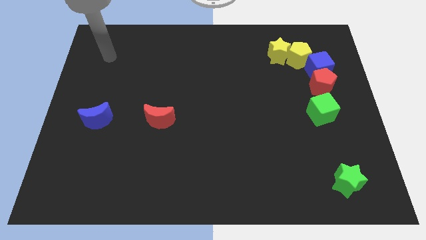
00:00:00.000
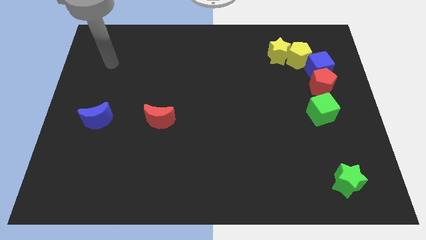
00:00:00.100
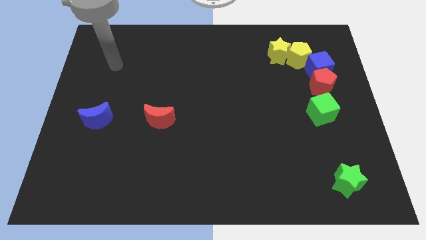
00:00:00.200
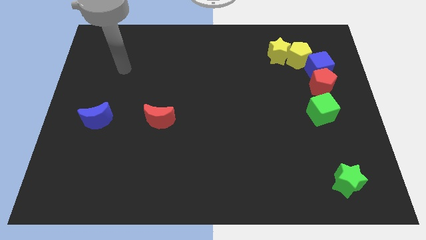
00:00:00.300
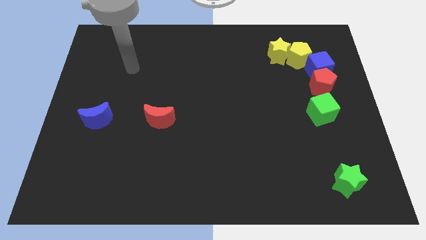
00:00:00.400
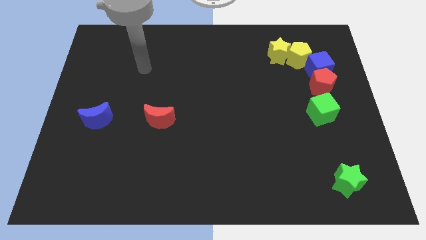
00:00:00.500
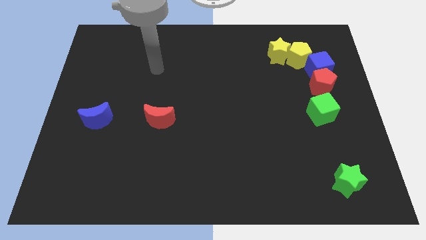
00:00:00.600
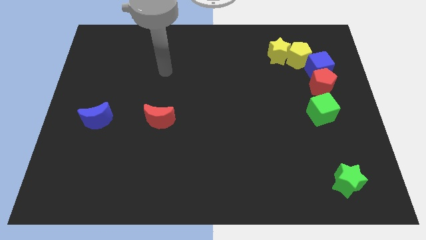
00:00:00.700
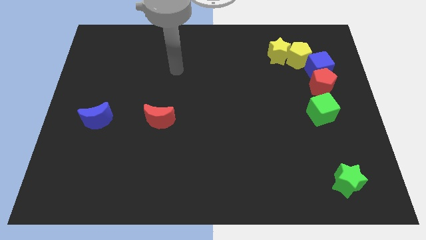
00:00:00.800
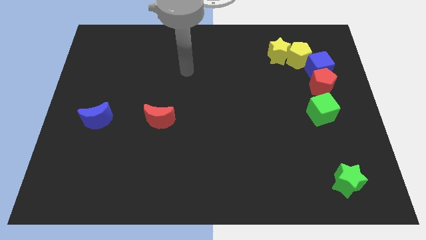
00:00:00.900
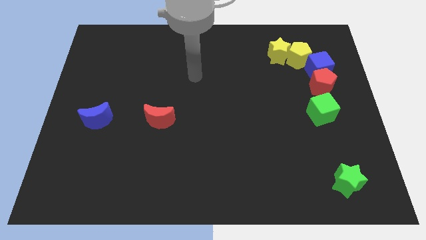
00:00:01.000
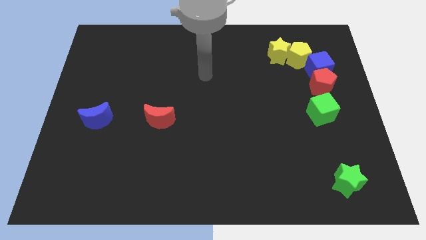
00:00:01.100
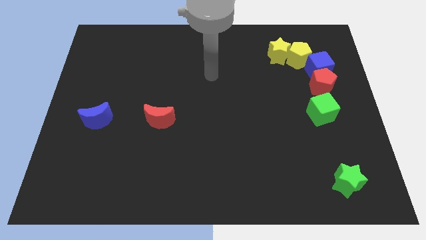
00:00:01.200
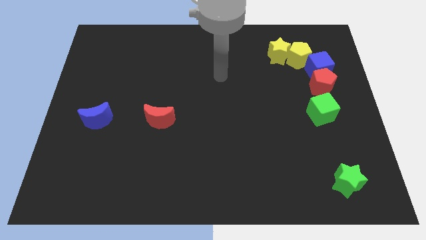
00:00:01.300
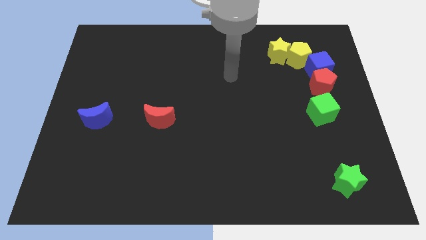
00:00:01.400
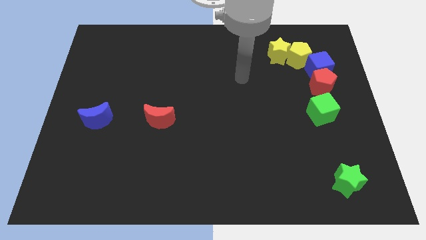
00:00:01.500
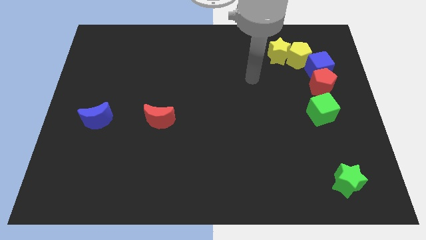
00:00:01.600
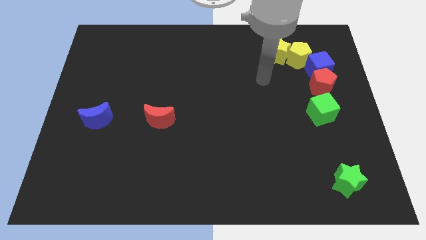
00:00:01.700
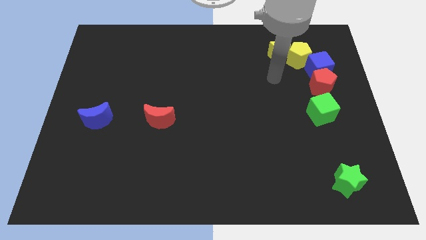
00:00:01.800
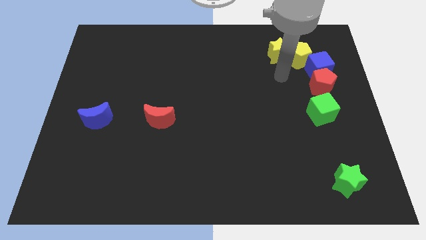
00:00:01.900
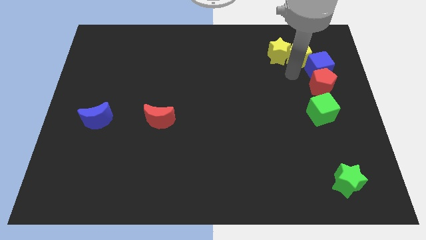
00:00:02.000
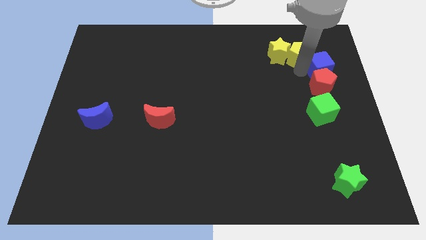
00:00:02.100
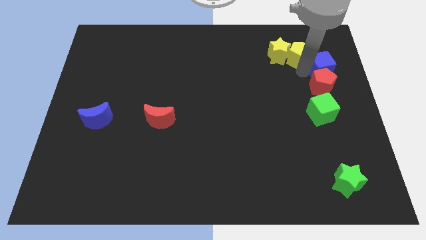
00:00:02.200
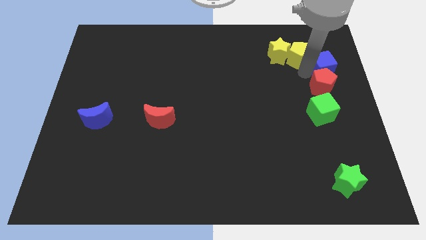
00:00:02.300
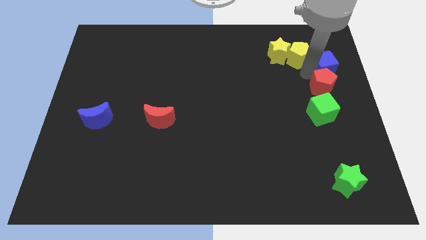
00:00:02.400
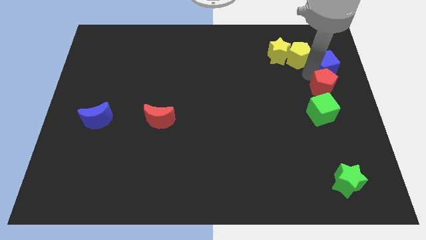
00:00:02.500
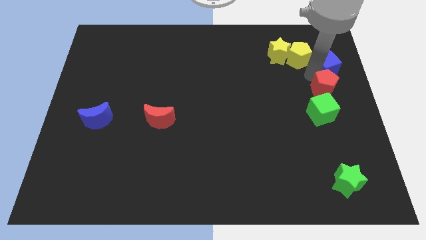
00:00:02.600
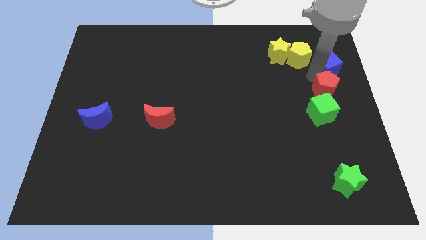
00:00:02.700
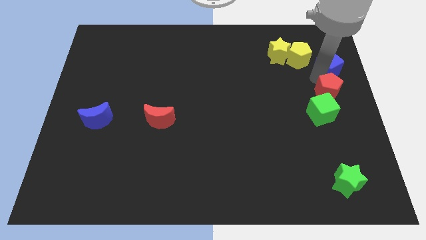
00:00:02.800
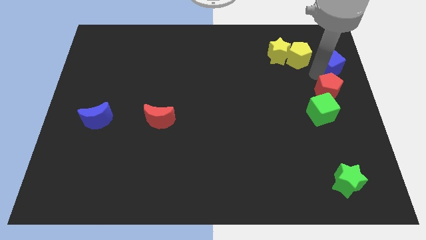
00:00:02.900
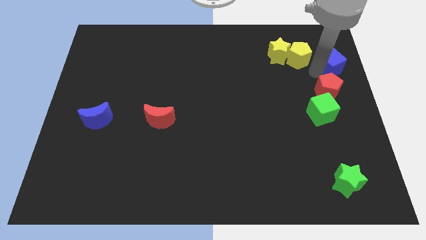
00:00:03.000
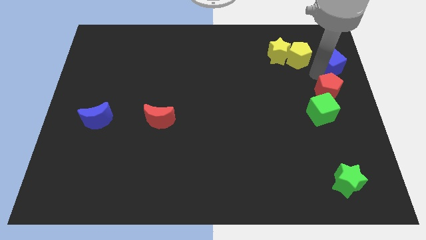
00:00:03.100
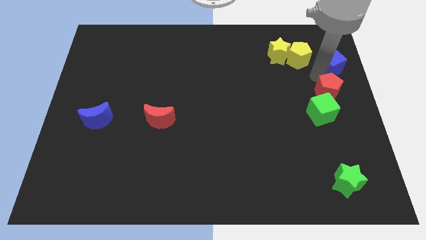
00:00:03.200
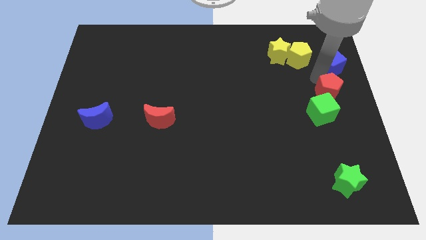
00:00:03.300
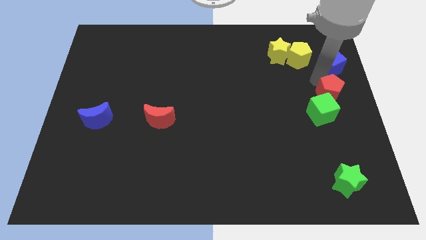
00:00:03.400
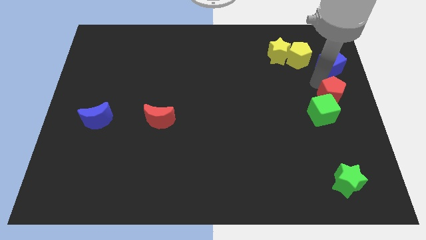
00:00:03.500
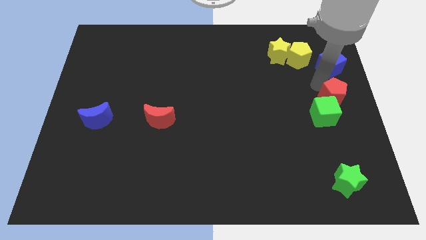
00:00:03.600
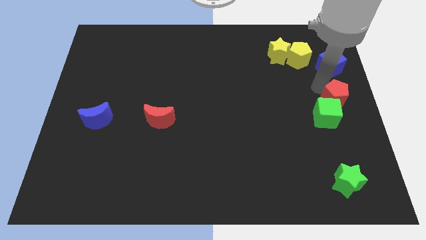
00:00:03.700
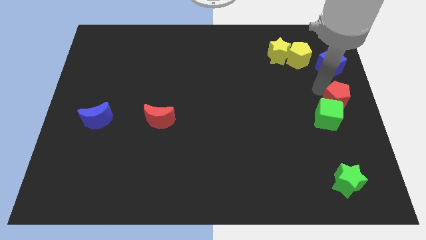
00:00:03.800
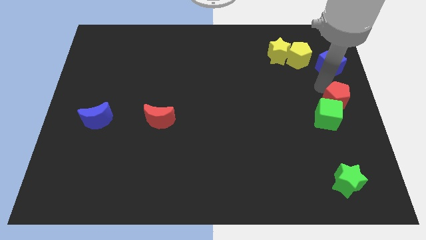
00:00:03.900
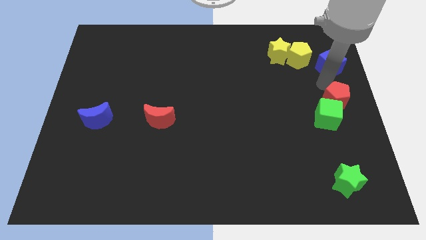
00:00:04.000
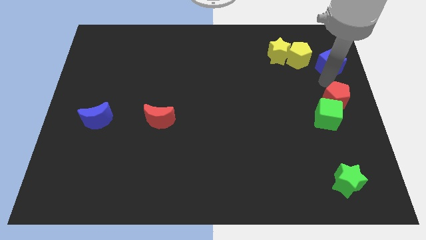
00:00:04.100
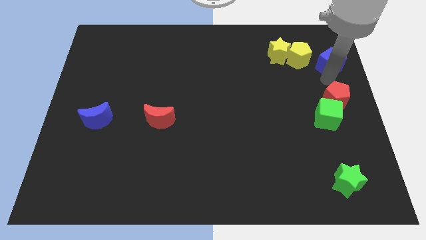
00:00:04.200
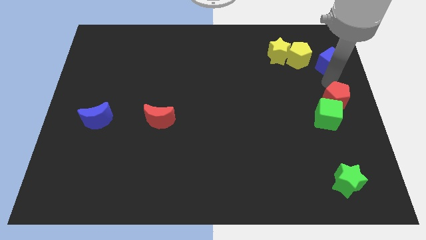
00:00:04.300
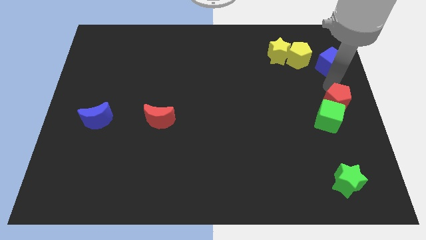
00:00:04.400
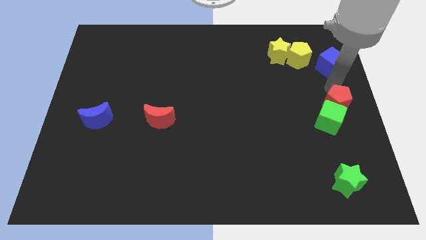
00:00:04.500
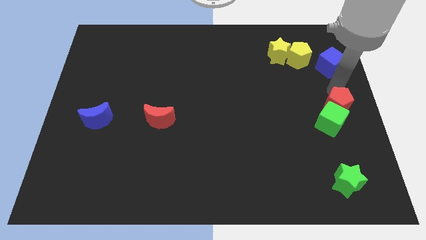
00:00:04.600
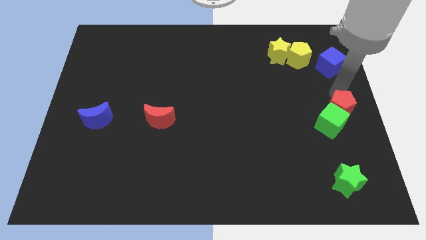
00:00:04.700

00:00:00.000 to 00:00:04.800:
slide the red pentagon down a little

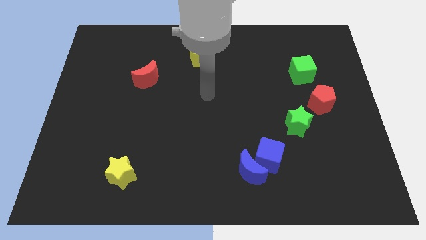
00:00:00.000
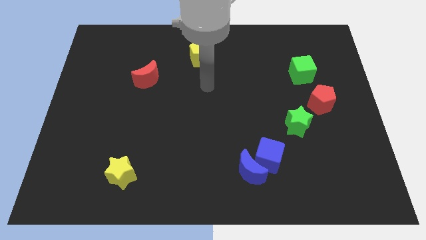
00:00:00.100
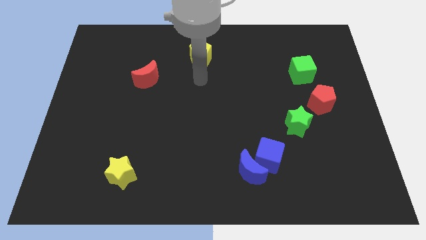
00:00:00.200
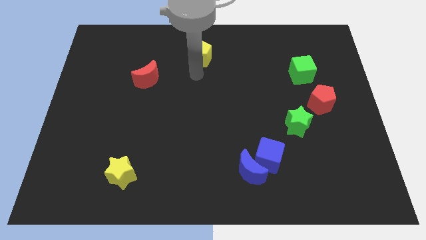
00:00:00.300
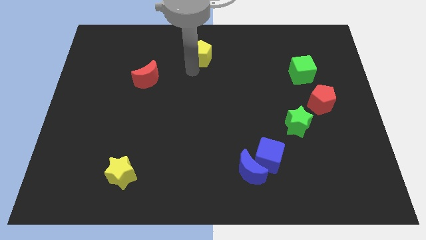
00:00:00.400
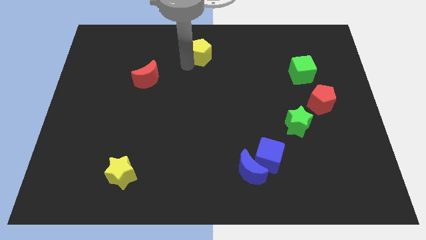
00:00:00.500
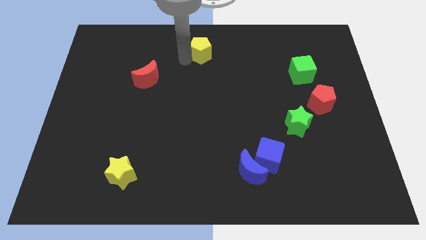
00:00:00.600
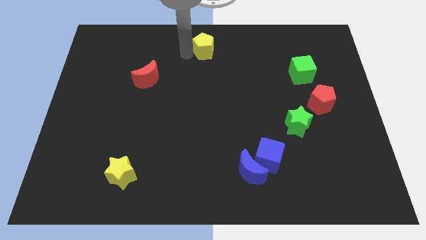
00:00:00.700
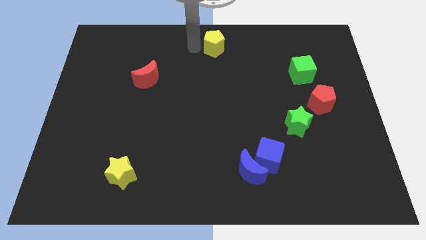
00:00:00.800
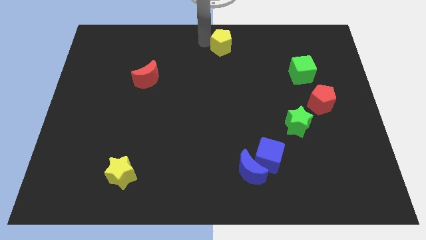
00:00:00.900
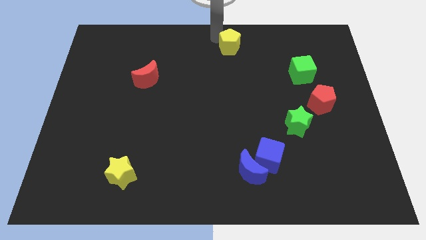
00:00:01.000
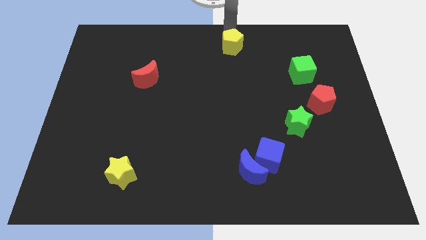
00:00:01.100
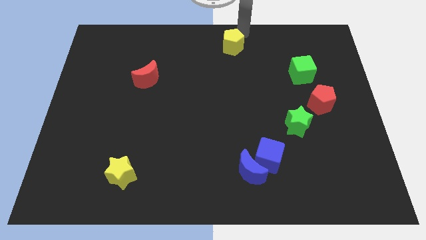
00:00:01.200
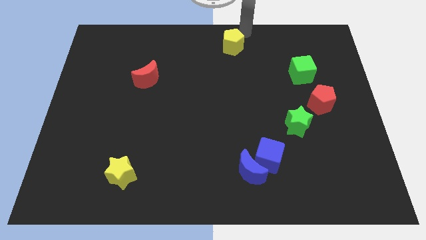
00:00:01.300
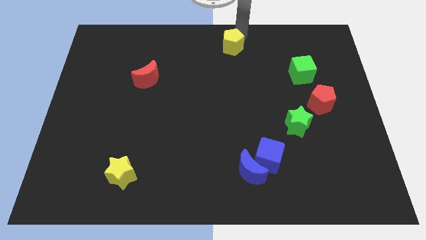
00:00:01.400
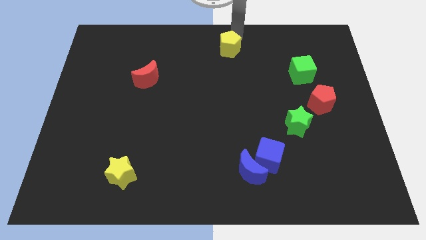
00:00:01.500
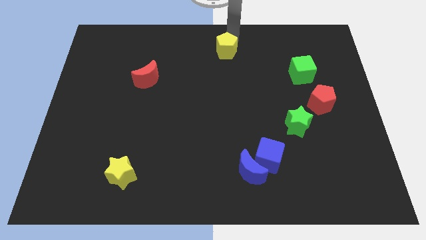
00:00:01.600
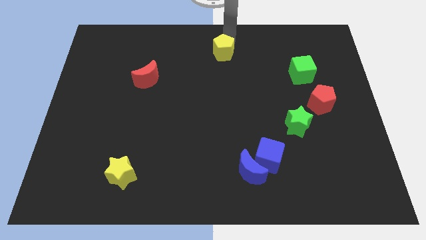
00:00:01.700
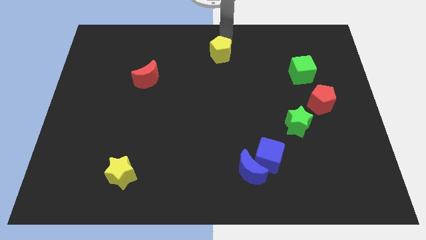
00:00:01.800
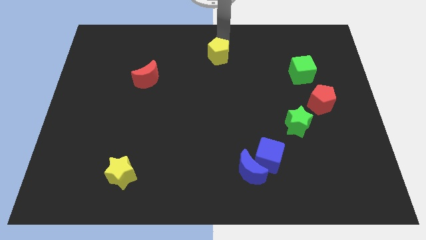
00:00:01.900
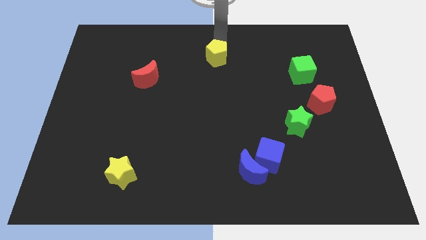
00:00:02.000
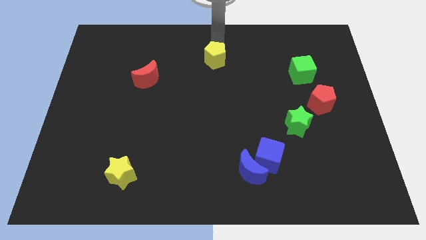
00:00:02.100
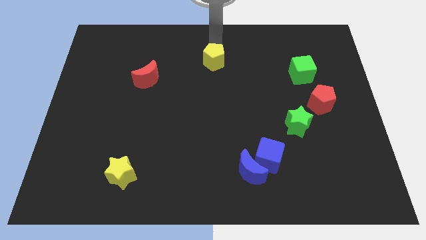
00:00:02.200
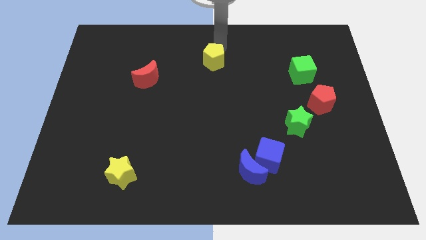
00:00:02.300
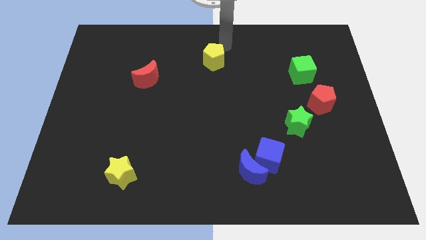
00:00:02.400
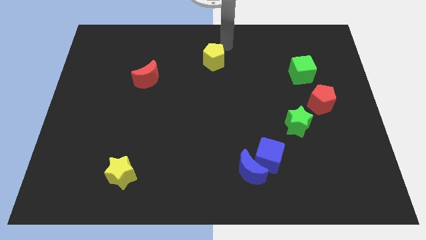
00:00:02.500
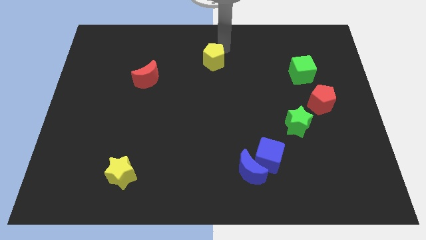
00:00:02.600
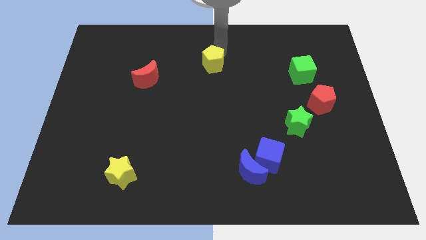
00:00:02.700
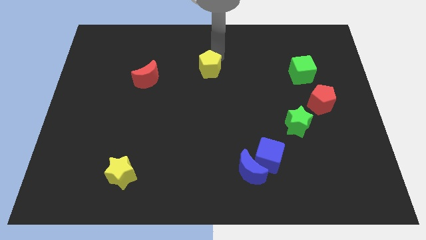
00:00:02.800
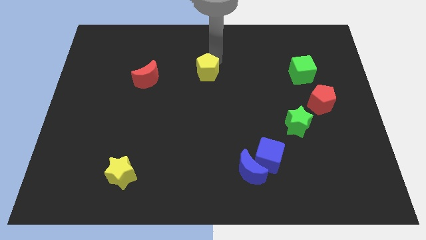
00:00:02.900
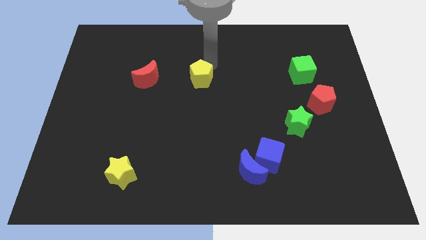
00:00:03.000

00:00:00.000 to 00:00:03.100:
slightly slide the yellow pentagon downwards

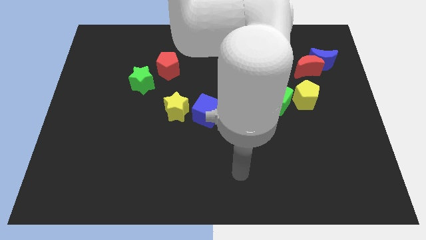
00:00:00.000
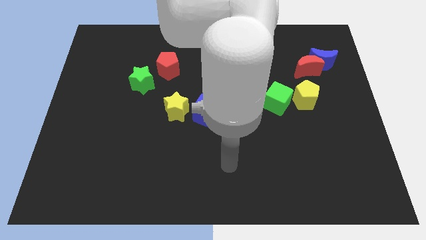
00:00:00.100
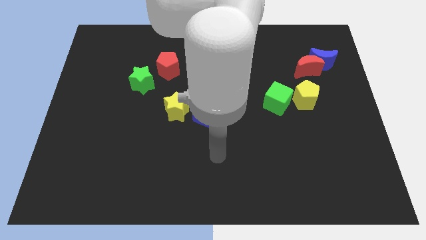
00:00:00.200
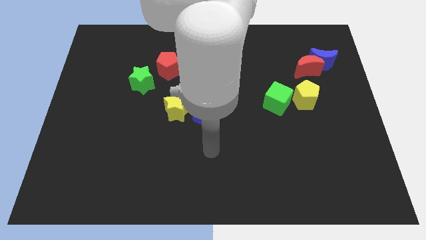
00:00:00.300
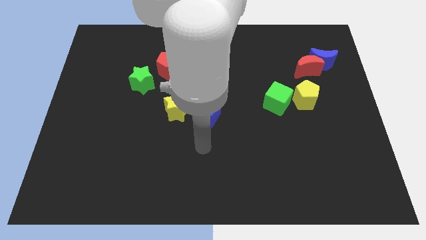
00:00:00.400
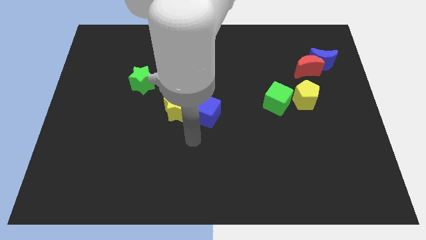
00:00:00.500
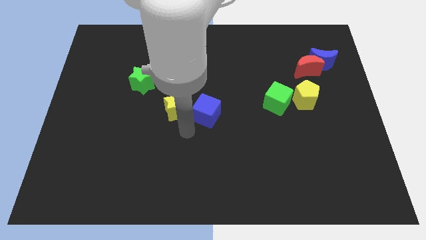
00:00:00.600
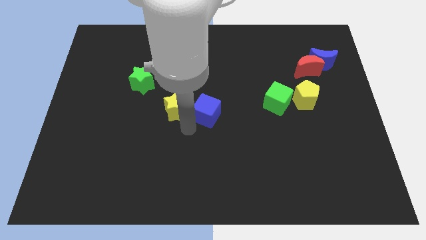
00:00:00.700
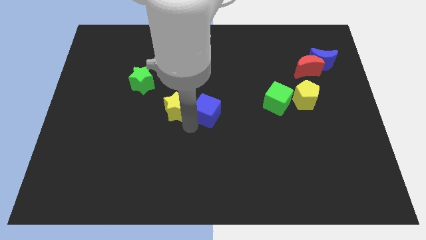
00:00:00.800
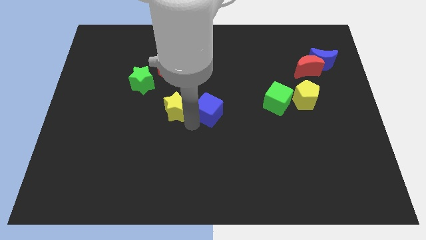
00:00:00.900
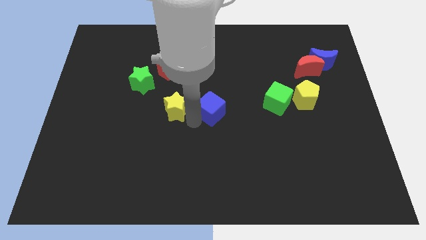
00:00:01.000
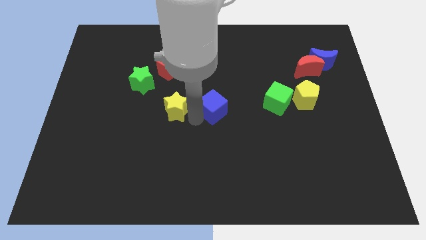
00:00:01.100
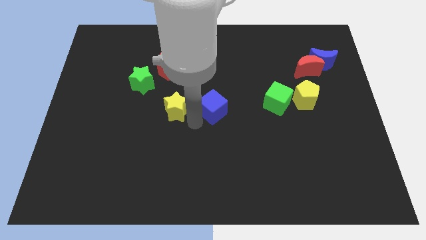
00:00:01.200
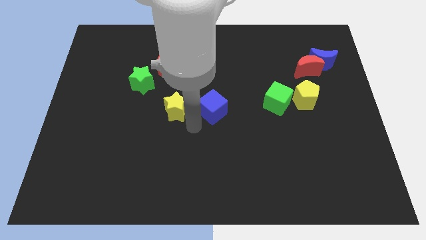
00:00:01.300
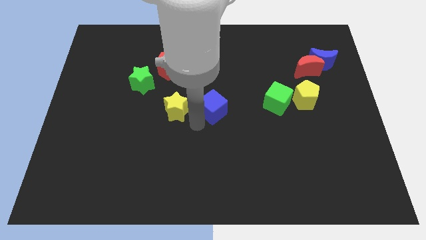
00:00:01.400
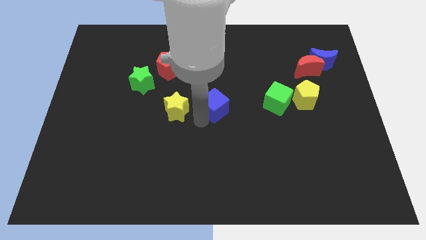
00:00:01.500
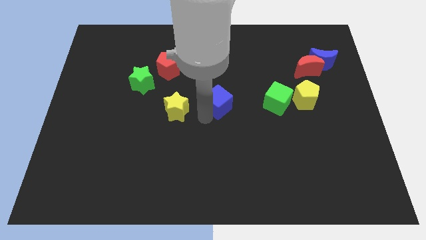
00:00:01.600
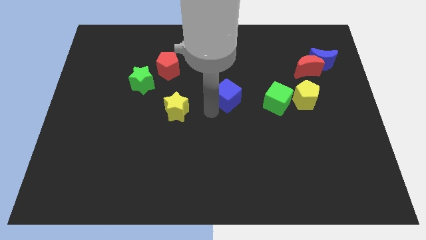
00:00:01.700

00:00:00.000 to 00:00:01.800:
move the blue cube upwards and then to the right somewhat
